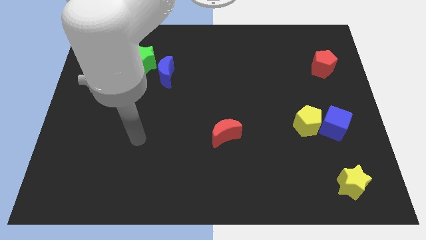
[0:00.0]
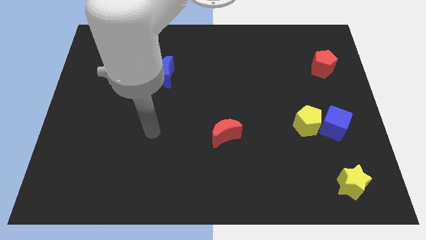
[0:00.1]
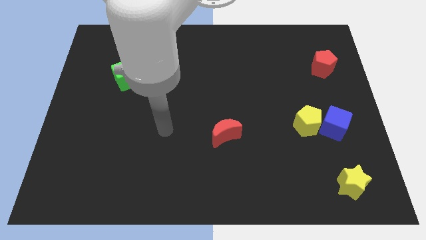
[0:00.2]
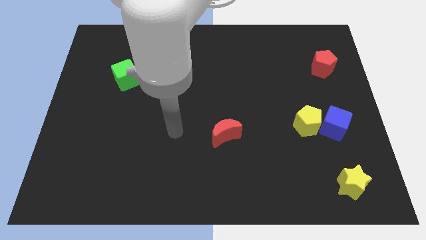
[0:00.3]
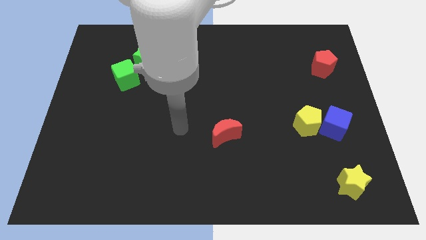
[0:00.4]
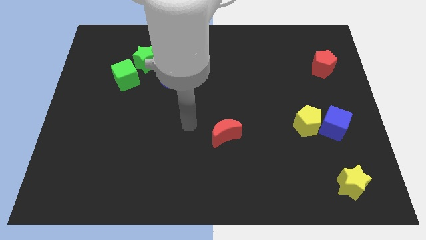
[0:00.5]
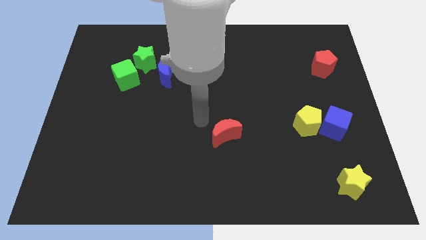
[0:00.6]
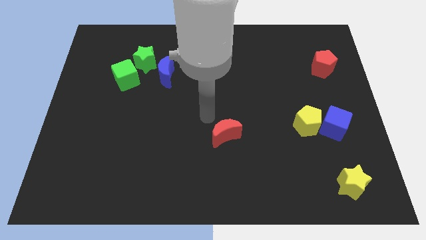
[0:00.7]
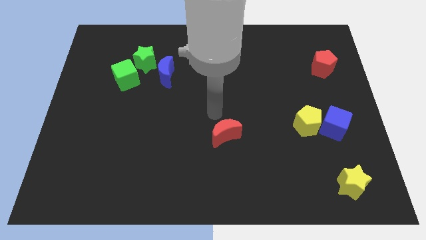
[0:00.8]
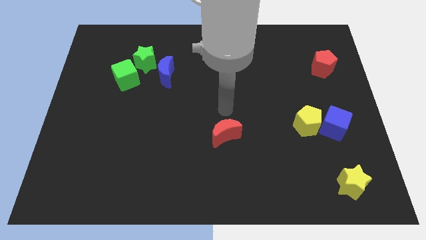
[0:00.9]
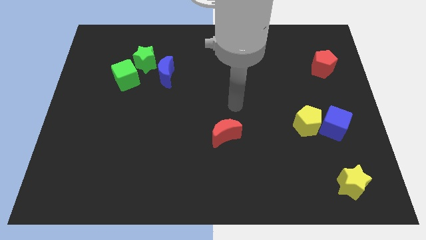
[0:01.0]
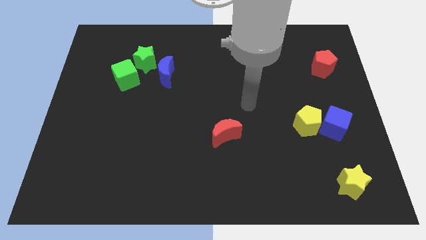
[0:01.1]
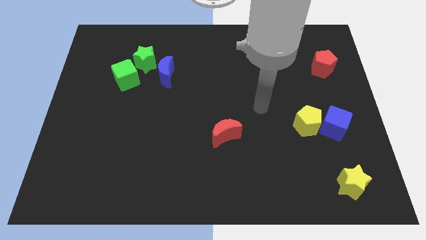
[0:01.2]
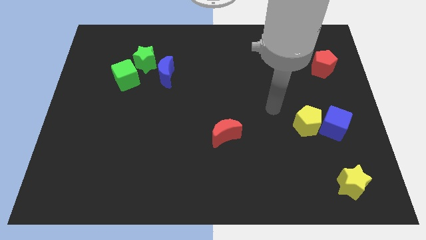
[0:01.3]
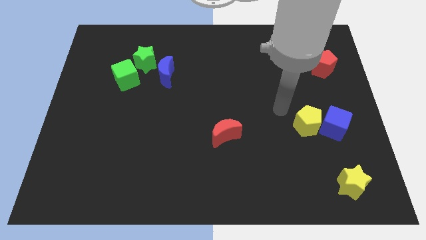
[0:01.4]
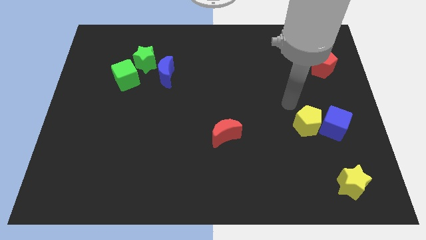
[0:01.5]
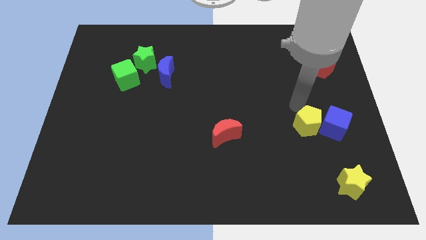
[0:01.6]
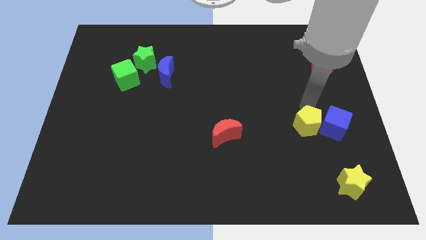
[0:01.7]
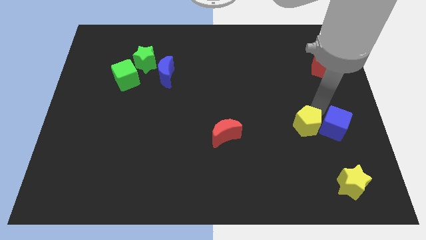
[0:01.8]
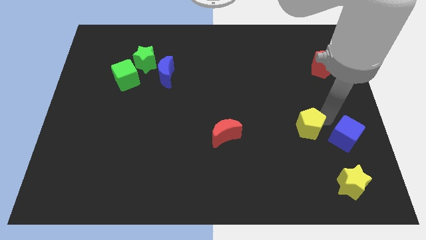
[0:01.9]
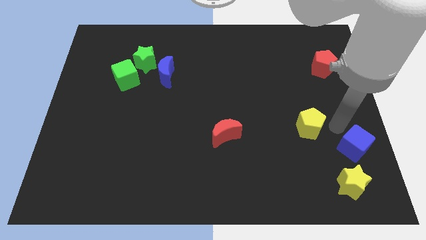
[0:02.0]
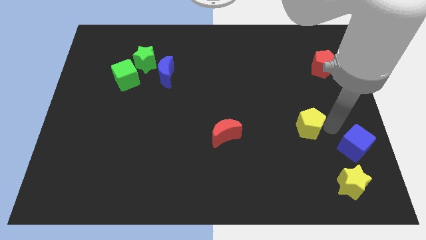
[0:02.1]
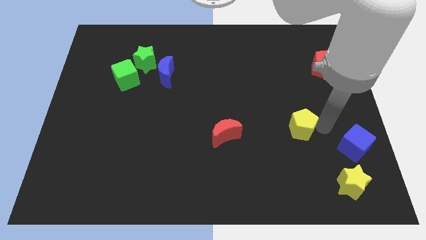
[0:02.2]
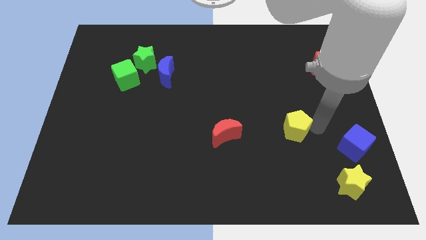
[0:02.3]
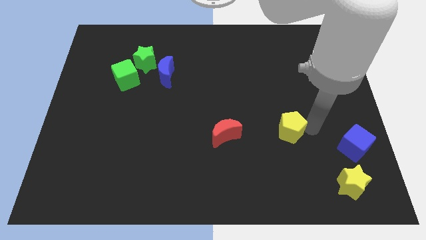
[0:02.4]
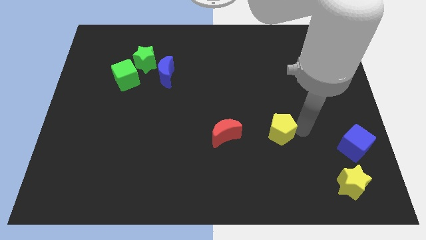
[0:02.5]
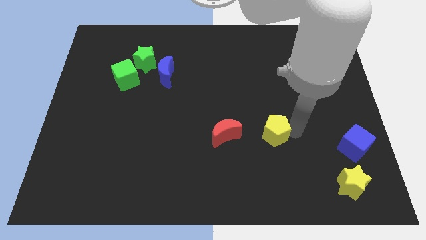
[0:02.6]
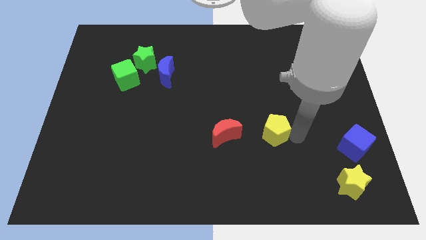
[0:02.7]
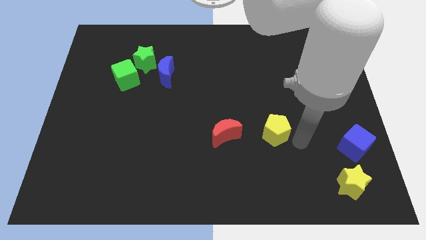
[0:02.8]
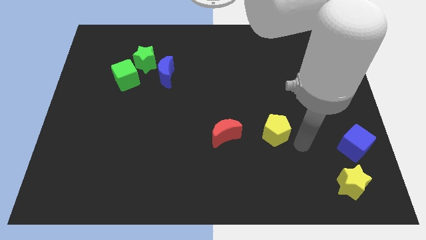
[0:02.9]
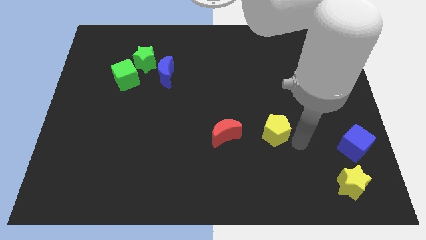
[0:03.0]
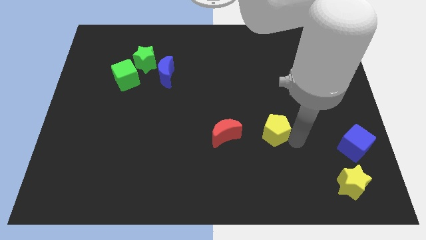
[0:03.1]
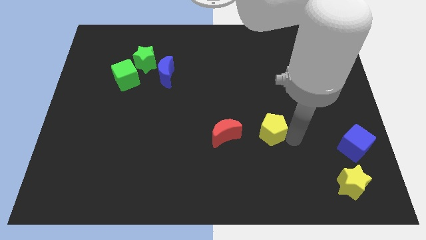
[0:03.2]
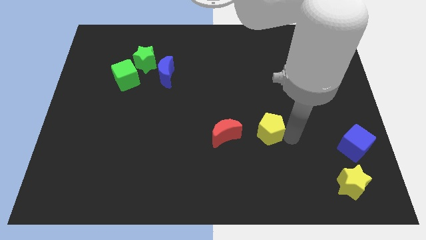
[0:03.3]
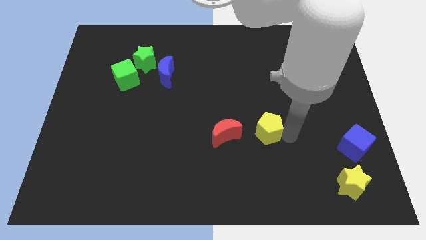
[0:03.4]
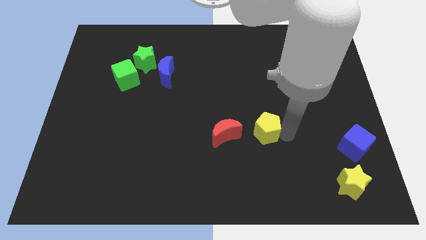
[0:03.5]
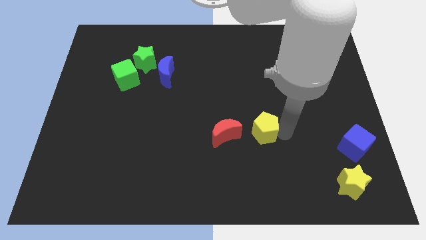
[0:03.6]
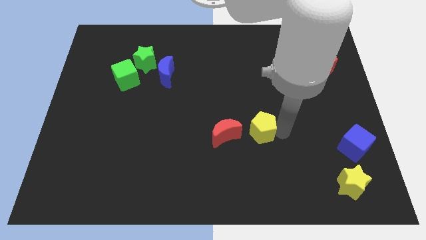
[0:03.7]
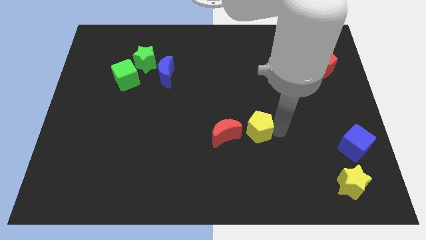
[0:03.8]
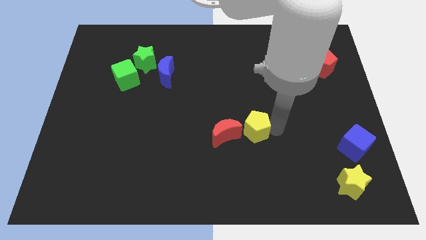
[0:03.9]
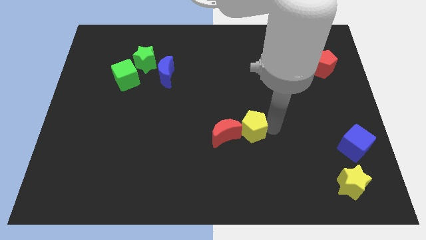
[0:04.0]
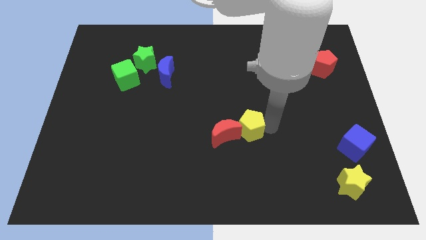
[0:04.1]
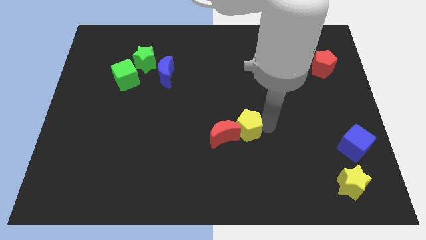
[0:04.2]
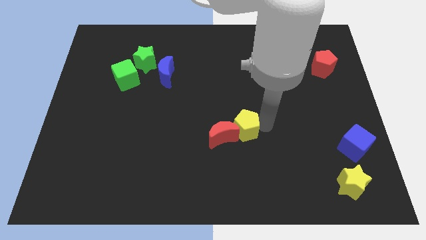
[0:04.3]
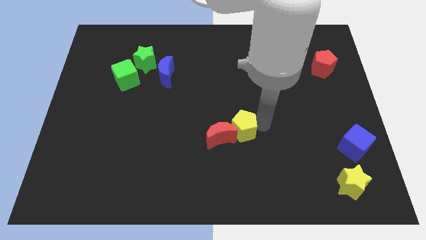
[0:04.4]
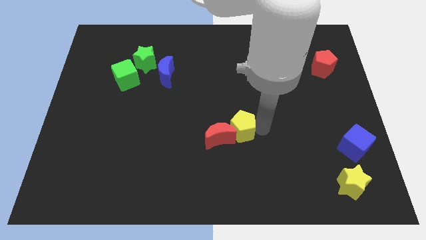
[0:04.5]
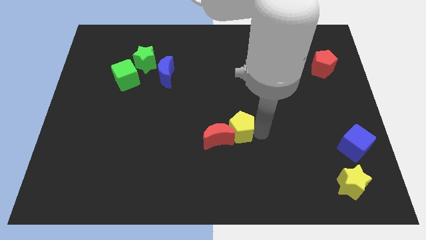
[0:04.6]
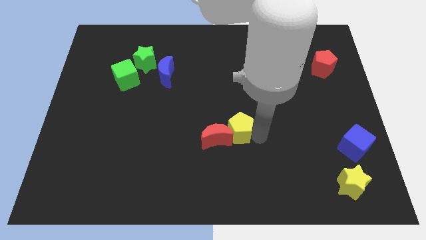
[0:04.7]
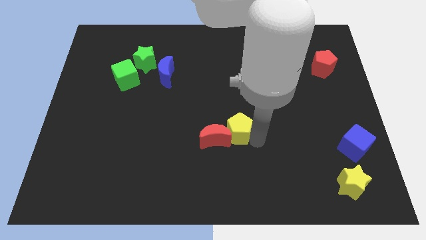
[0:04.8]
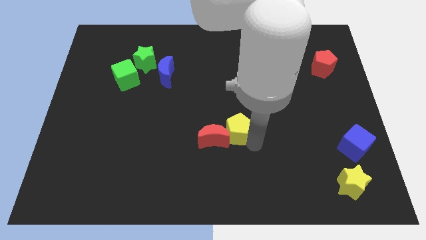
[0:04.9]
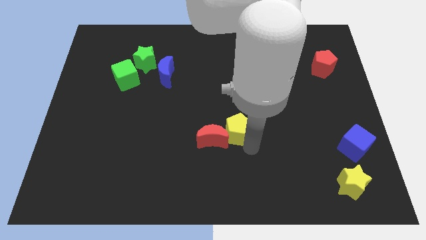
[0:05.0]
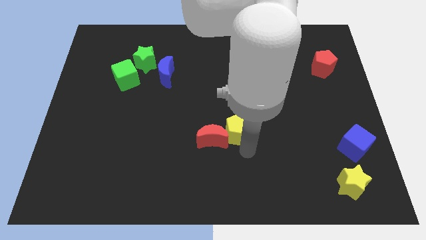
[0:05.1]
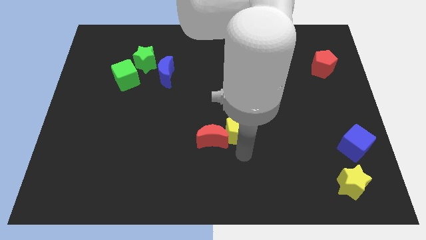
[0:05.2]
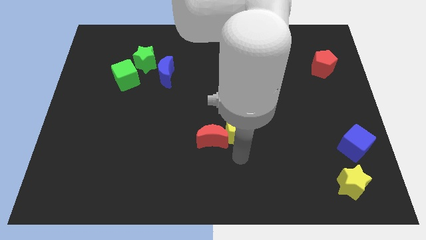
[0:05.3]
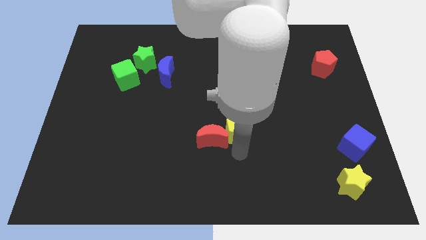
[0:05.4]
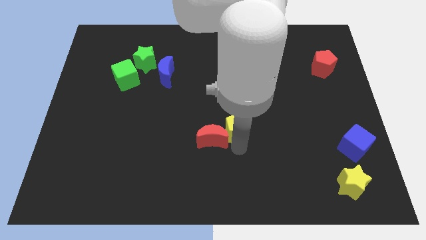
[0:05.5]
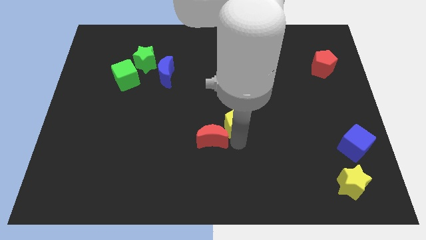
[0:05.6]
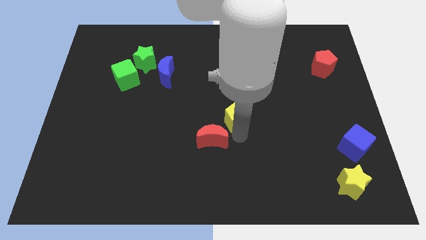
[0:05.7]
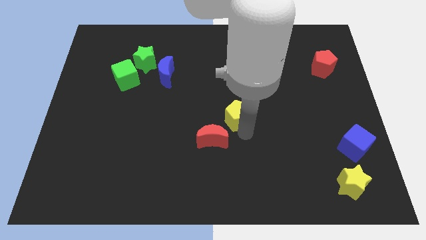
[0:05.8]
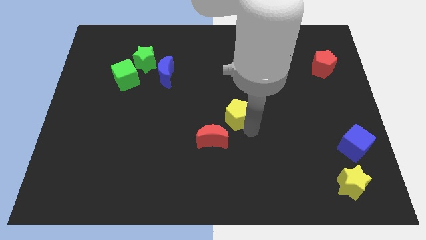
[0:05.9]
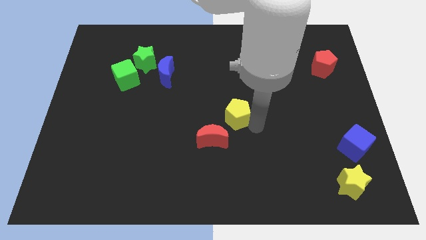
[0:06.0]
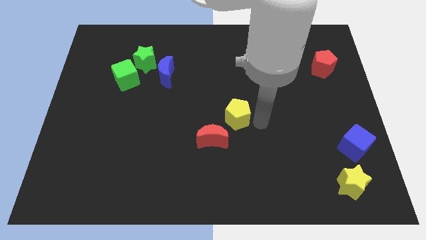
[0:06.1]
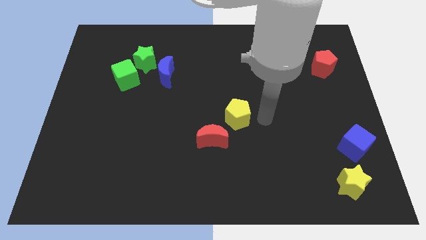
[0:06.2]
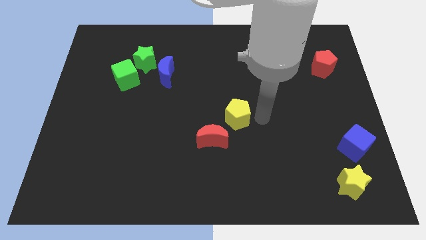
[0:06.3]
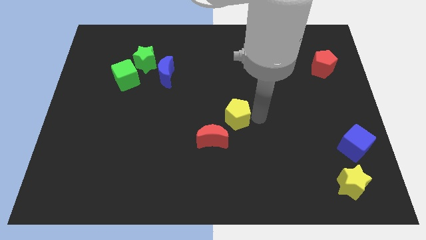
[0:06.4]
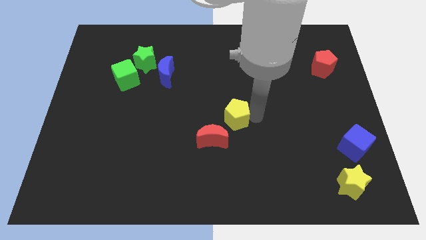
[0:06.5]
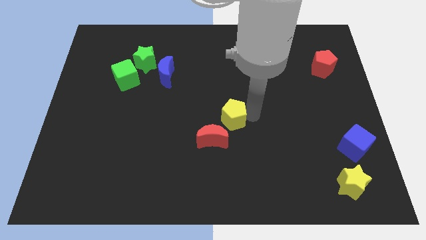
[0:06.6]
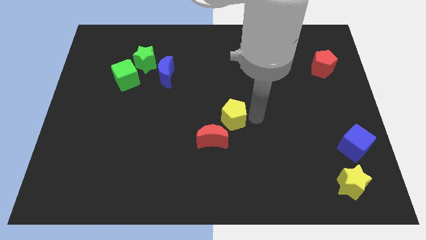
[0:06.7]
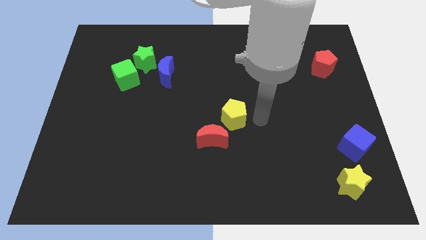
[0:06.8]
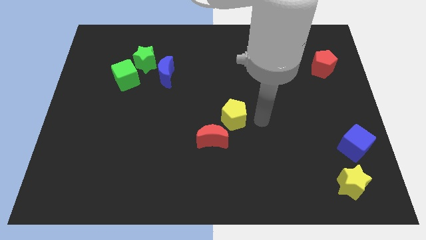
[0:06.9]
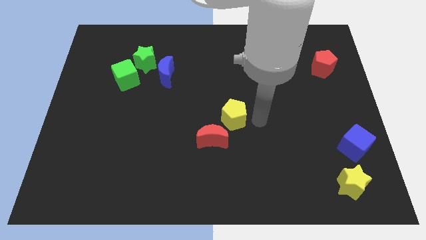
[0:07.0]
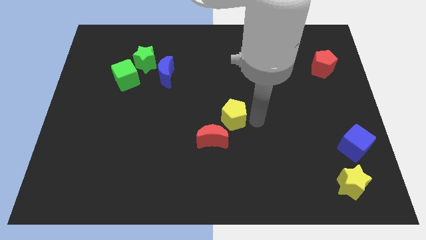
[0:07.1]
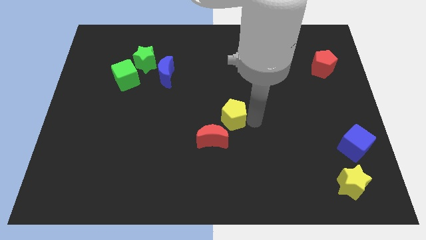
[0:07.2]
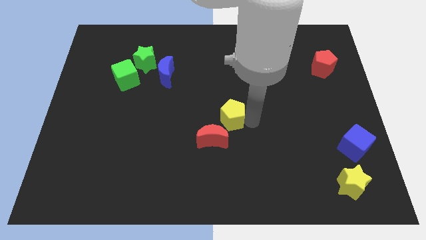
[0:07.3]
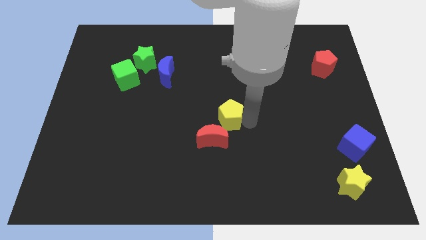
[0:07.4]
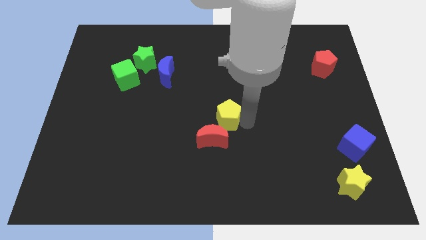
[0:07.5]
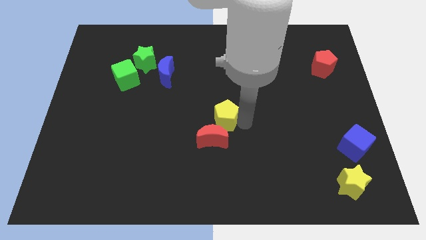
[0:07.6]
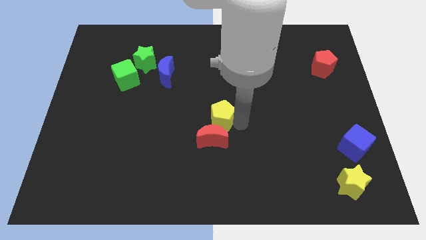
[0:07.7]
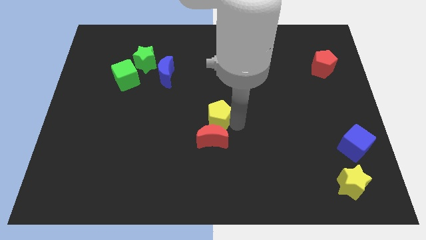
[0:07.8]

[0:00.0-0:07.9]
move the yellow pentagon left

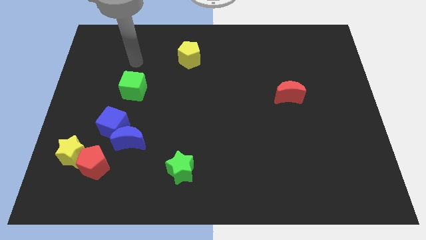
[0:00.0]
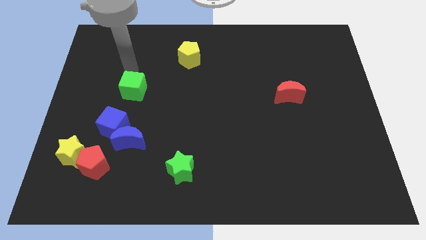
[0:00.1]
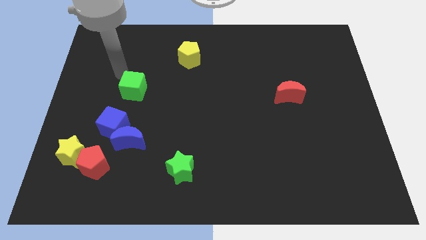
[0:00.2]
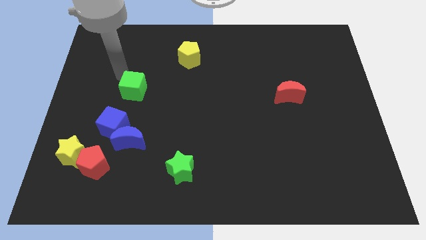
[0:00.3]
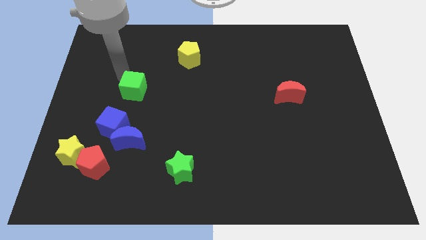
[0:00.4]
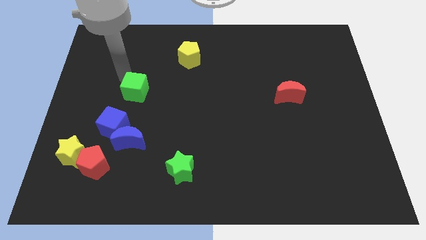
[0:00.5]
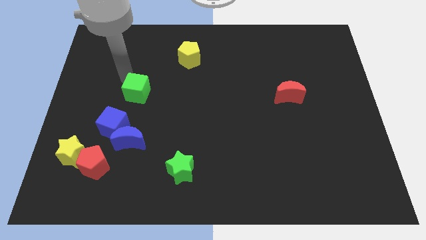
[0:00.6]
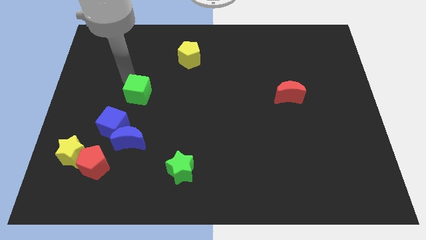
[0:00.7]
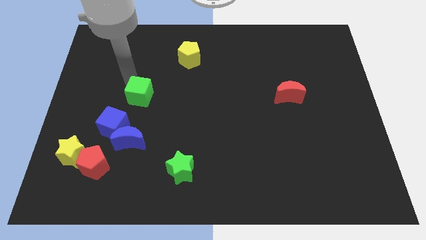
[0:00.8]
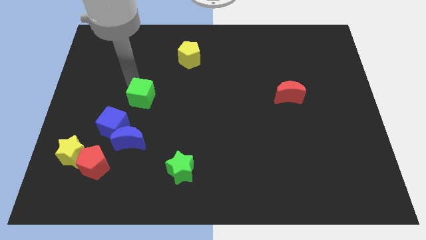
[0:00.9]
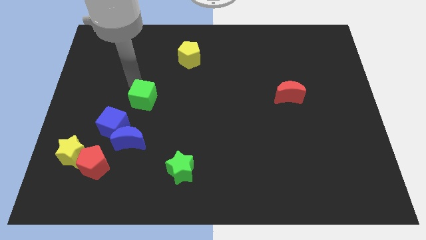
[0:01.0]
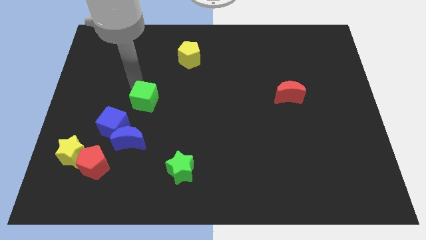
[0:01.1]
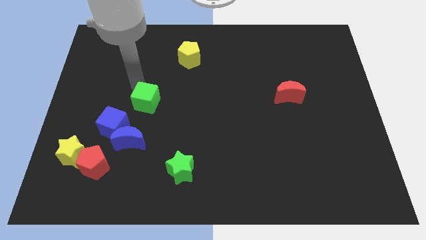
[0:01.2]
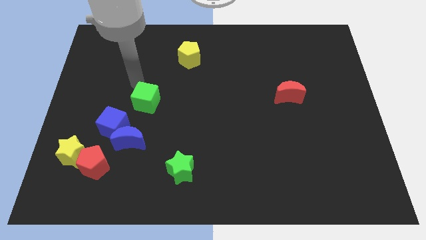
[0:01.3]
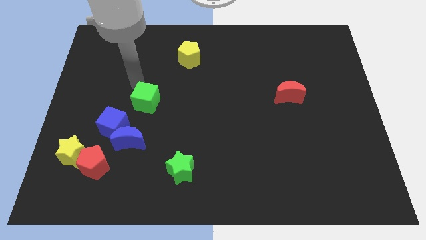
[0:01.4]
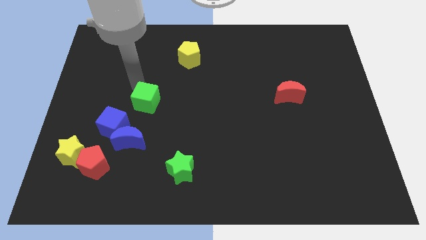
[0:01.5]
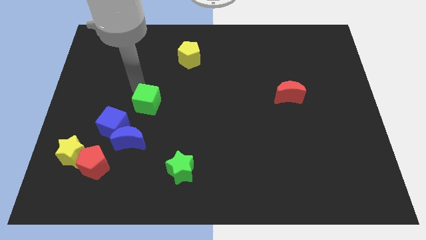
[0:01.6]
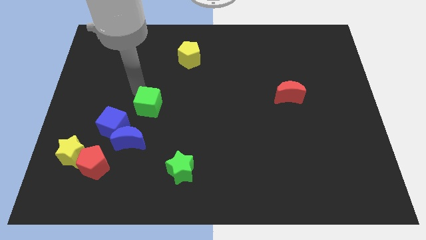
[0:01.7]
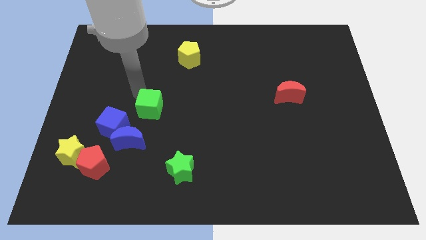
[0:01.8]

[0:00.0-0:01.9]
push the green cube diagonally down and to the right a bit
